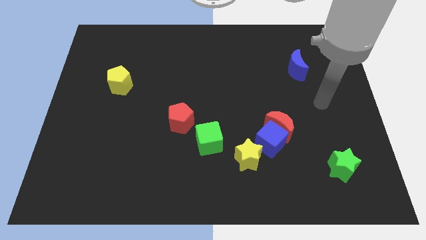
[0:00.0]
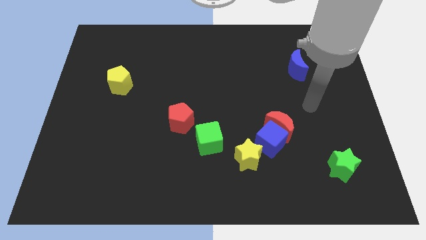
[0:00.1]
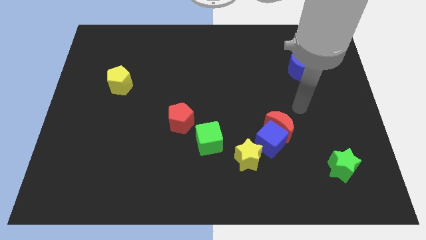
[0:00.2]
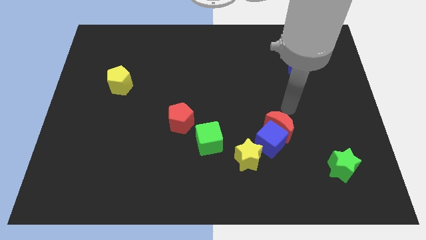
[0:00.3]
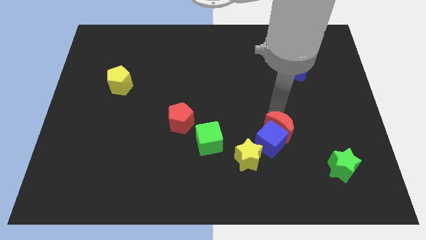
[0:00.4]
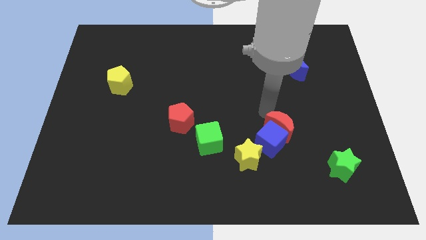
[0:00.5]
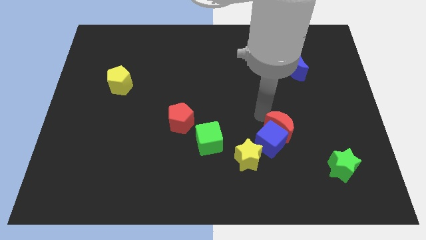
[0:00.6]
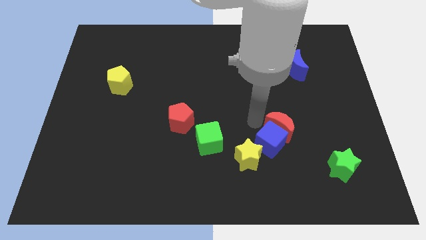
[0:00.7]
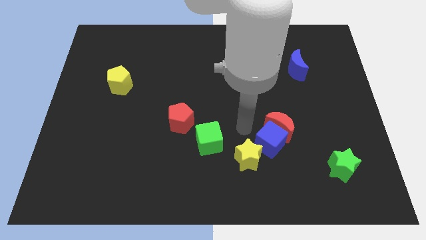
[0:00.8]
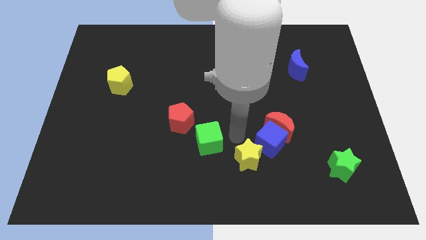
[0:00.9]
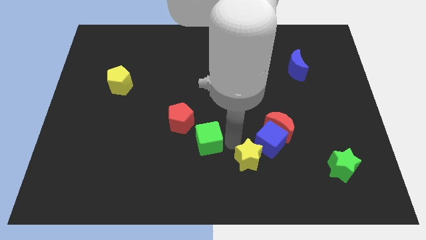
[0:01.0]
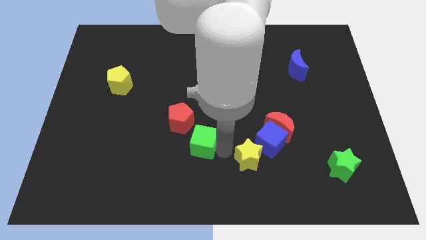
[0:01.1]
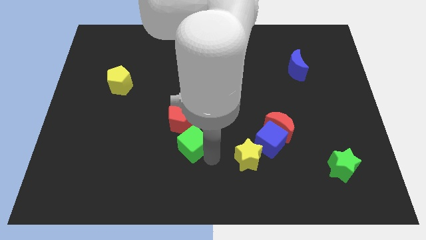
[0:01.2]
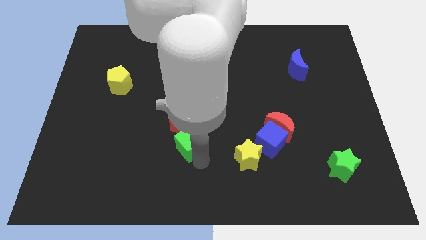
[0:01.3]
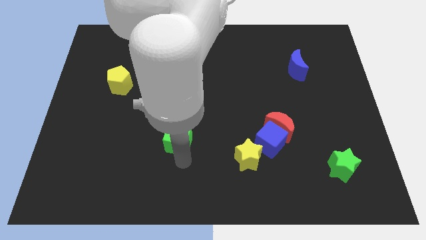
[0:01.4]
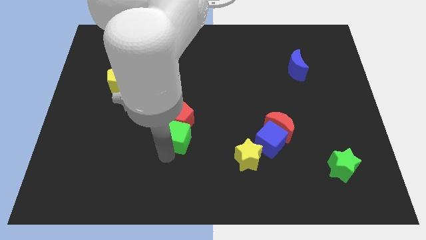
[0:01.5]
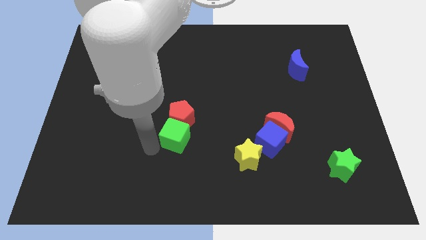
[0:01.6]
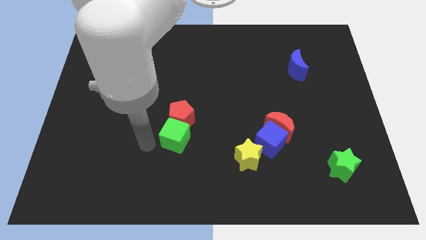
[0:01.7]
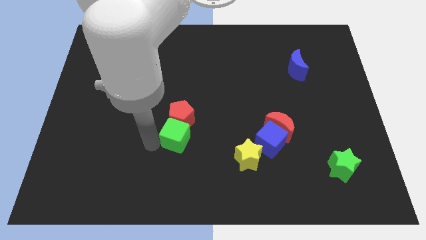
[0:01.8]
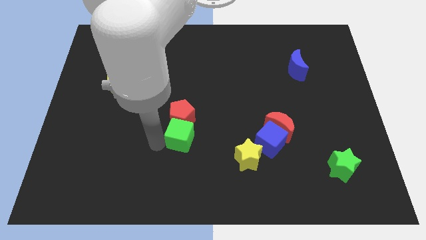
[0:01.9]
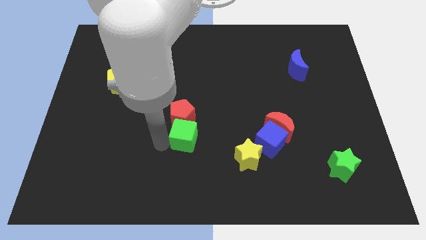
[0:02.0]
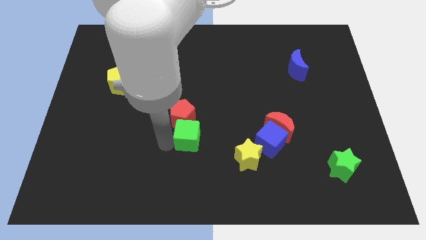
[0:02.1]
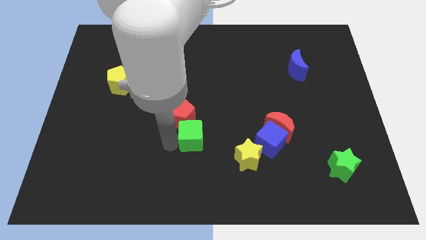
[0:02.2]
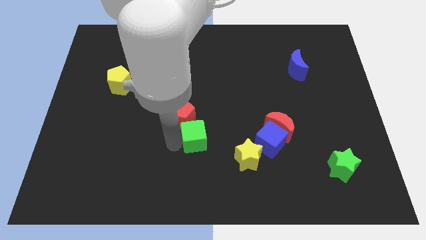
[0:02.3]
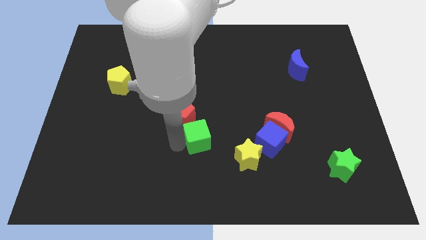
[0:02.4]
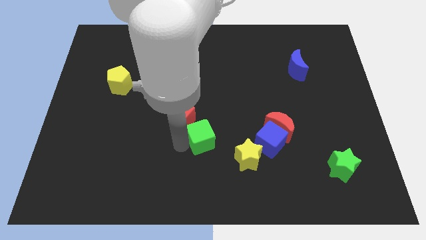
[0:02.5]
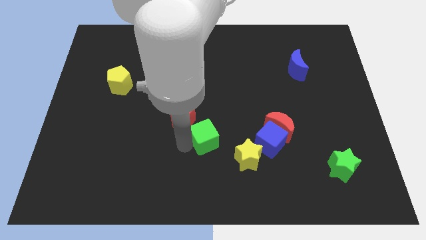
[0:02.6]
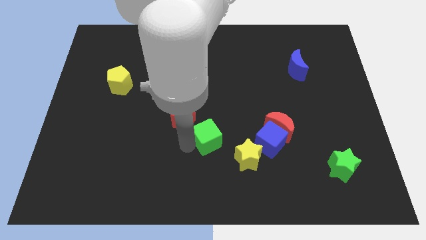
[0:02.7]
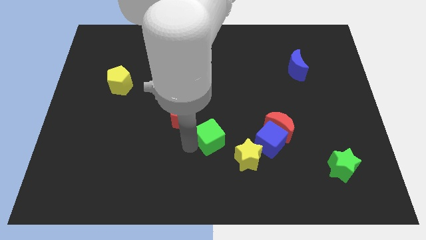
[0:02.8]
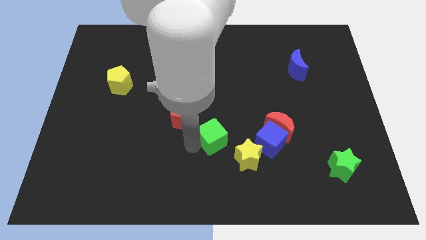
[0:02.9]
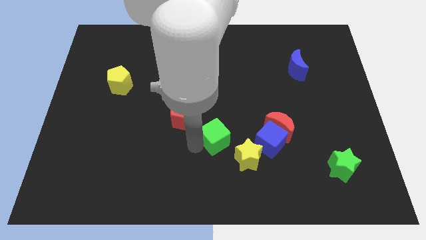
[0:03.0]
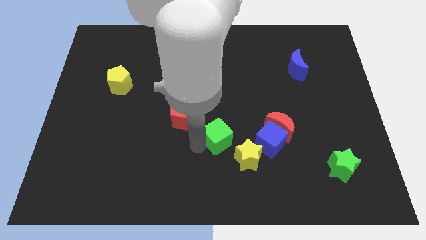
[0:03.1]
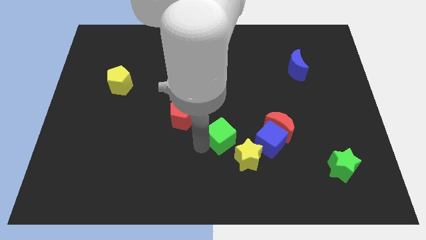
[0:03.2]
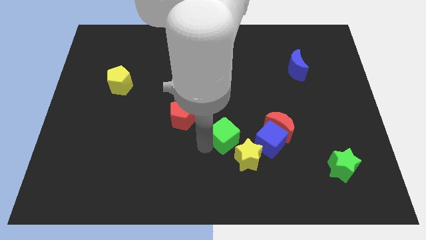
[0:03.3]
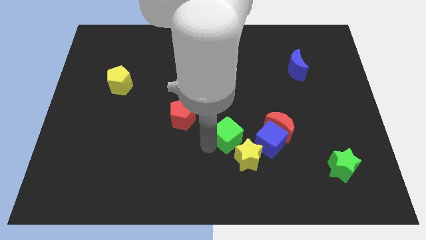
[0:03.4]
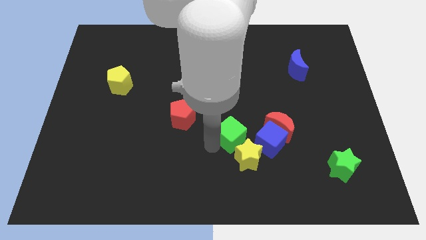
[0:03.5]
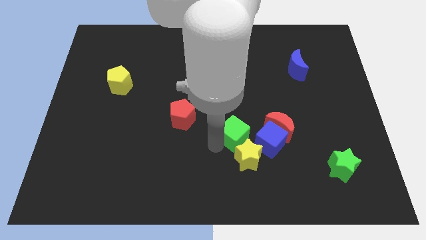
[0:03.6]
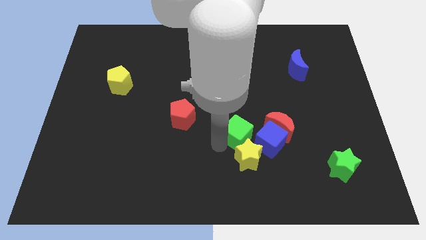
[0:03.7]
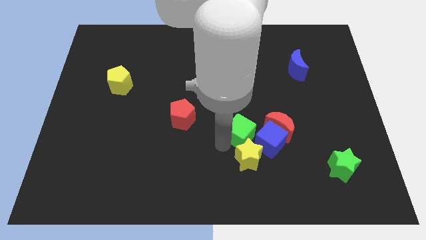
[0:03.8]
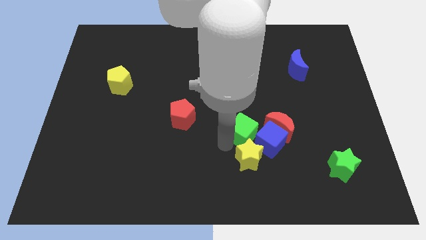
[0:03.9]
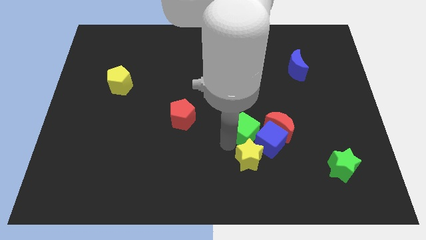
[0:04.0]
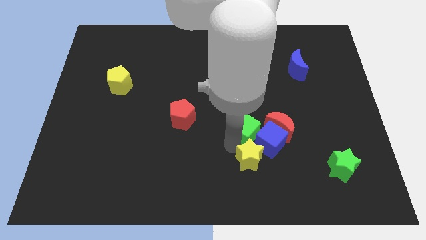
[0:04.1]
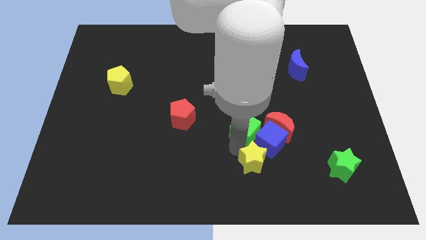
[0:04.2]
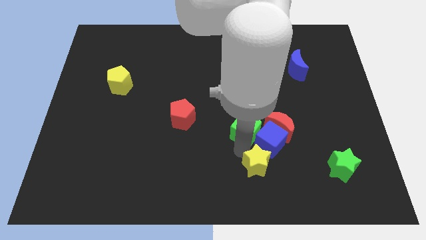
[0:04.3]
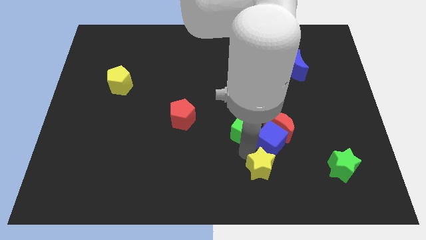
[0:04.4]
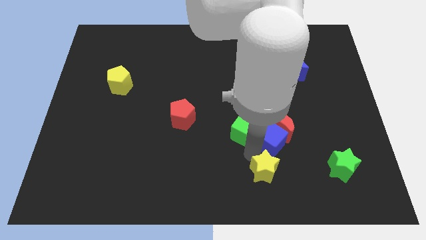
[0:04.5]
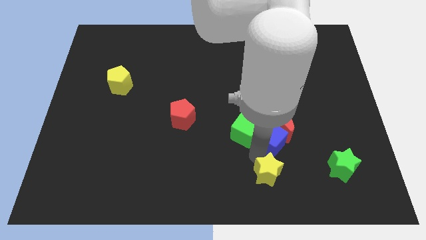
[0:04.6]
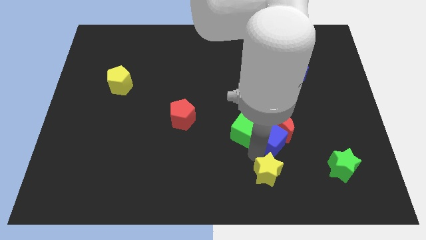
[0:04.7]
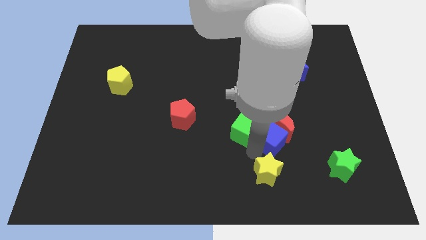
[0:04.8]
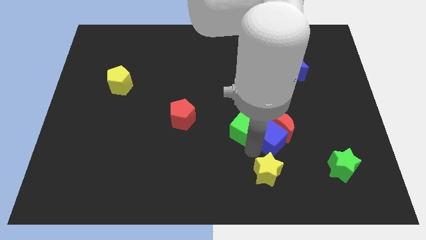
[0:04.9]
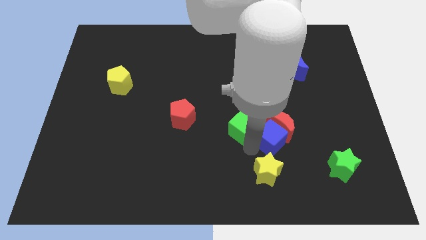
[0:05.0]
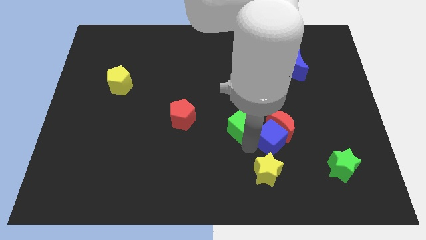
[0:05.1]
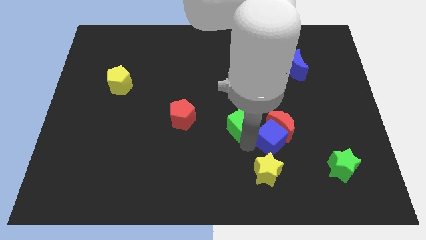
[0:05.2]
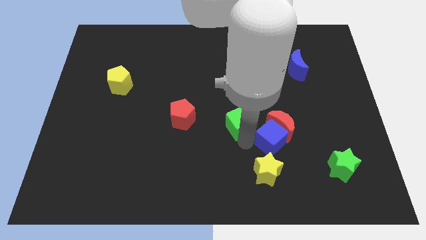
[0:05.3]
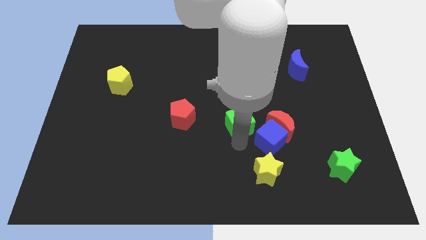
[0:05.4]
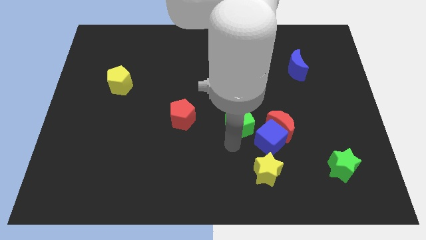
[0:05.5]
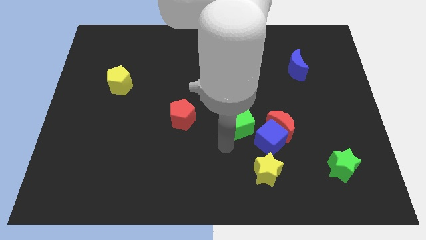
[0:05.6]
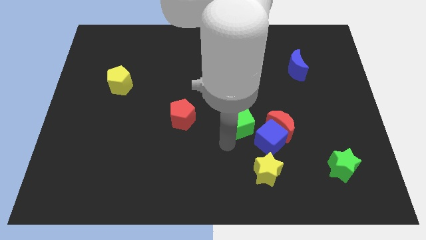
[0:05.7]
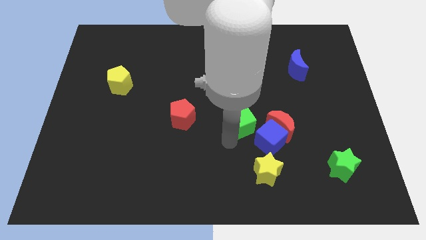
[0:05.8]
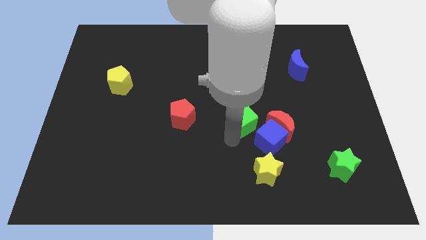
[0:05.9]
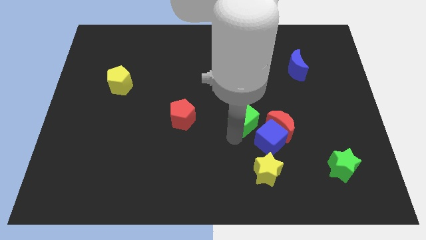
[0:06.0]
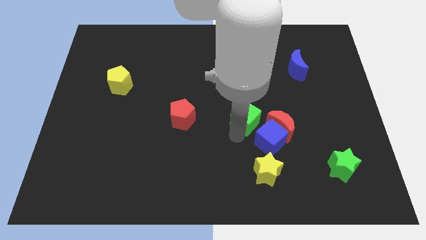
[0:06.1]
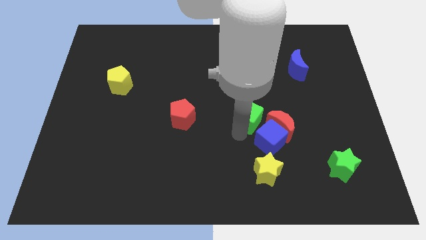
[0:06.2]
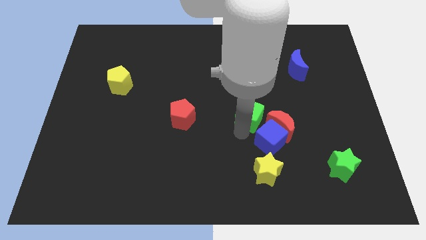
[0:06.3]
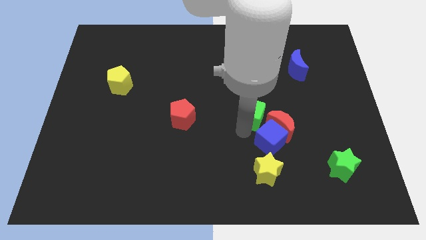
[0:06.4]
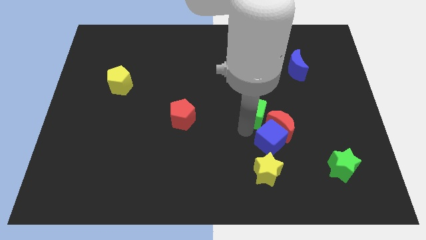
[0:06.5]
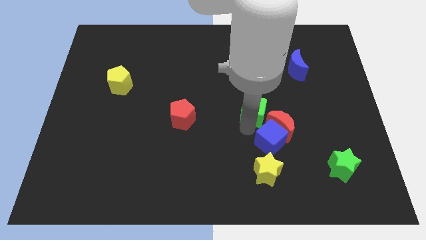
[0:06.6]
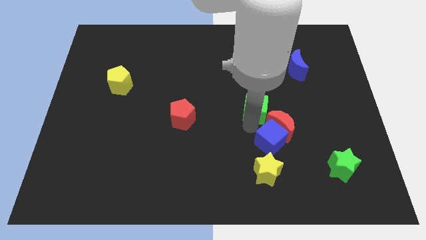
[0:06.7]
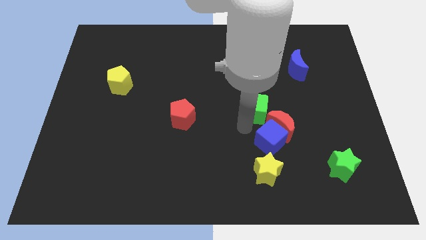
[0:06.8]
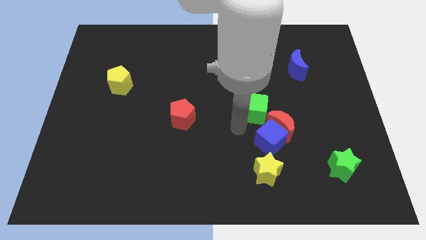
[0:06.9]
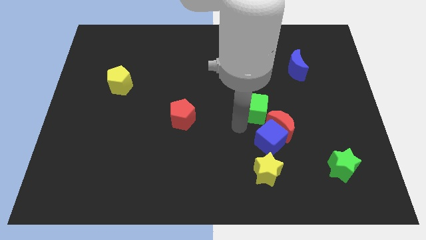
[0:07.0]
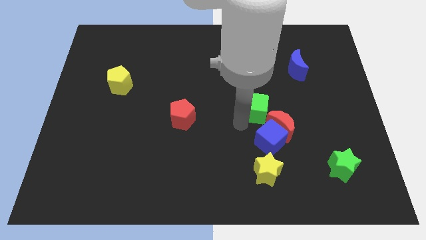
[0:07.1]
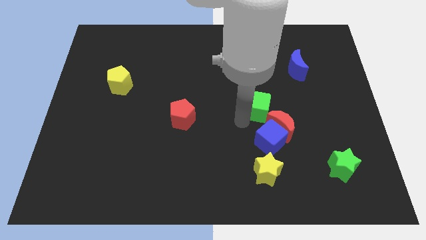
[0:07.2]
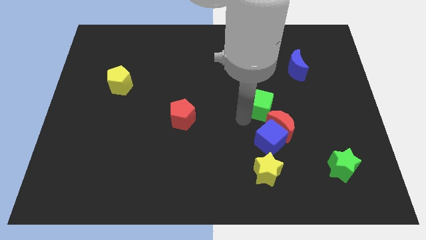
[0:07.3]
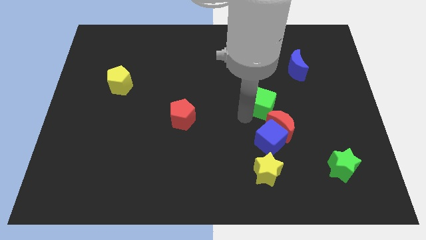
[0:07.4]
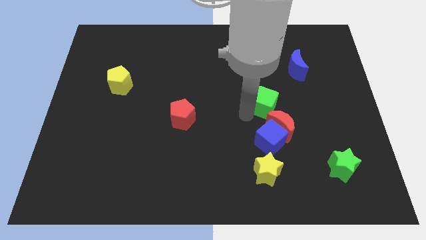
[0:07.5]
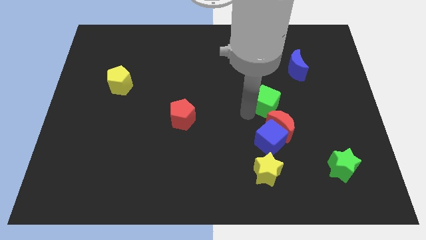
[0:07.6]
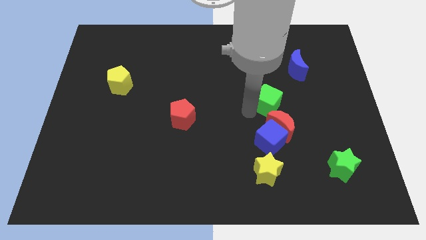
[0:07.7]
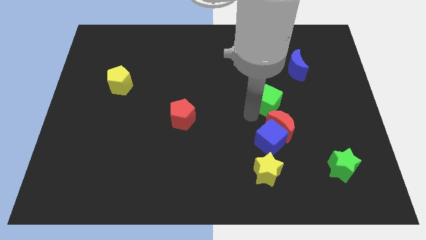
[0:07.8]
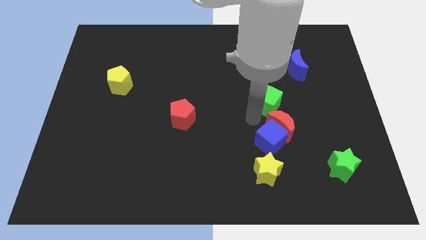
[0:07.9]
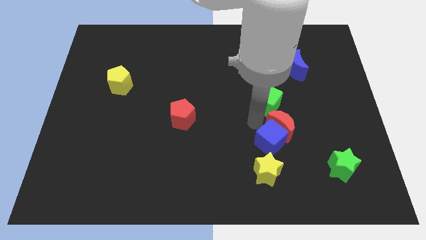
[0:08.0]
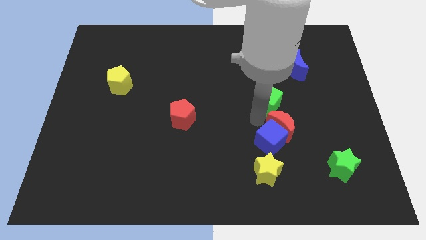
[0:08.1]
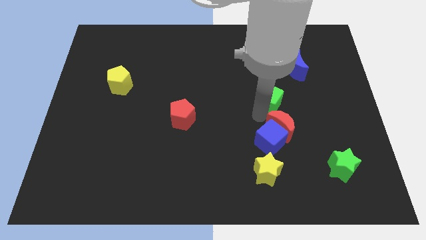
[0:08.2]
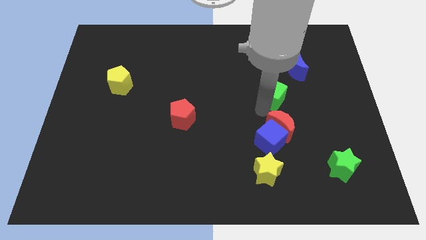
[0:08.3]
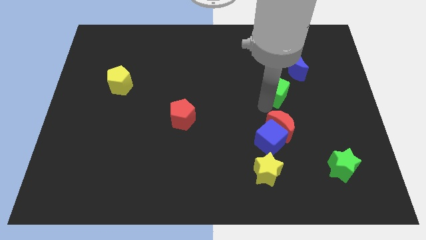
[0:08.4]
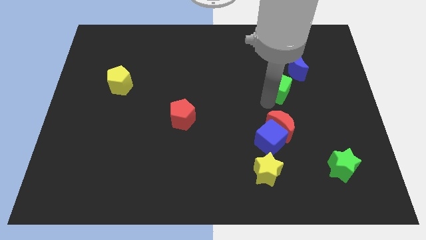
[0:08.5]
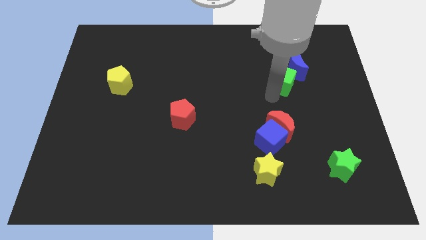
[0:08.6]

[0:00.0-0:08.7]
slide the green cube to the blue moon
